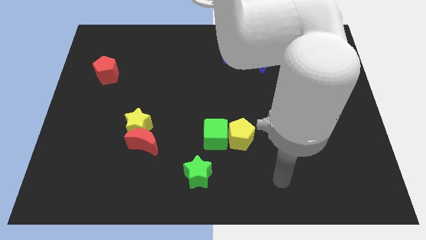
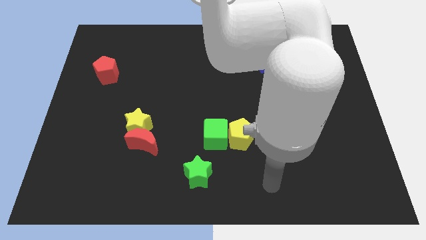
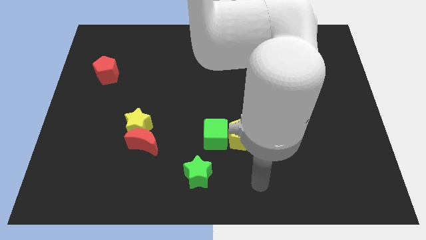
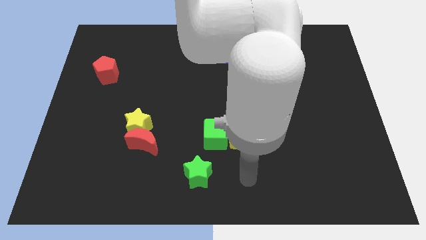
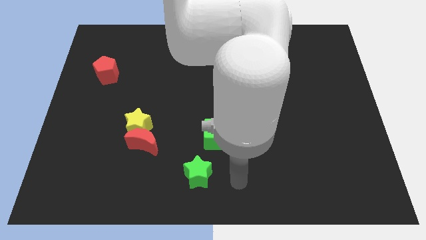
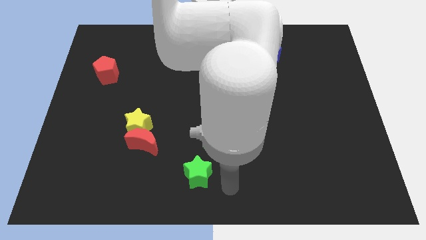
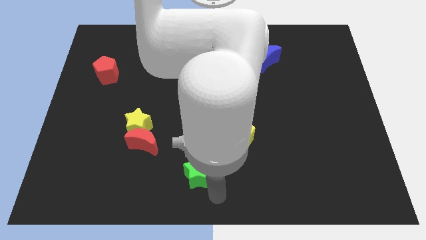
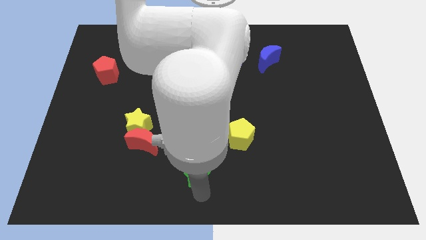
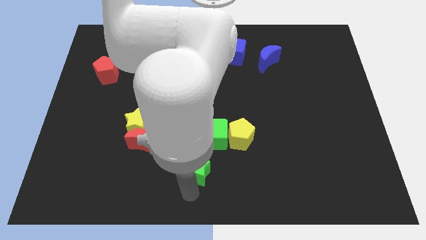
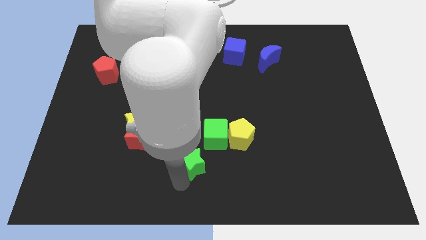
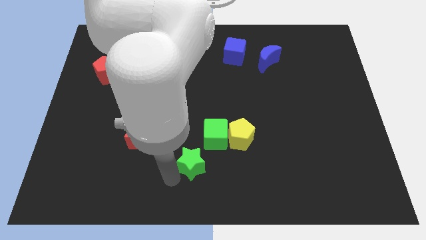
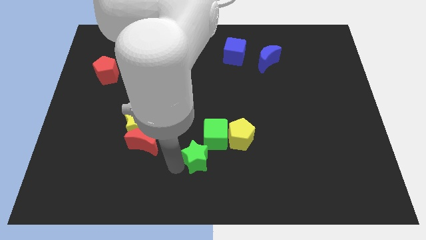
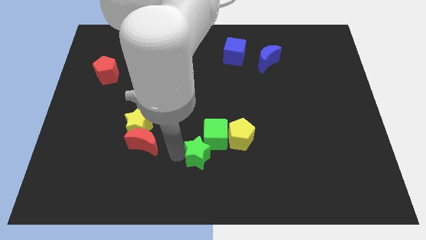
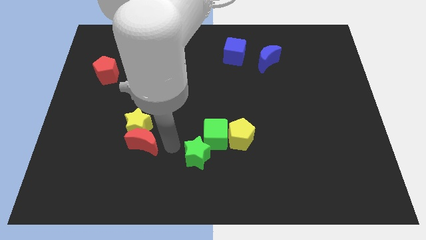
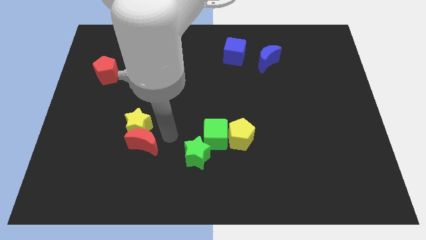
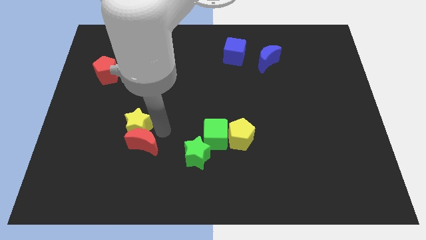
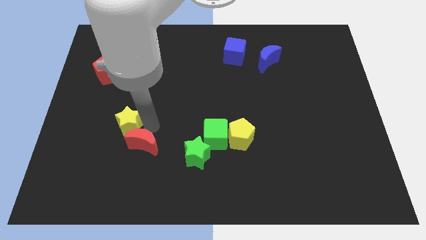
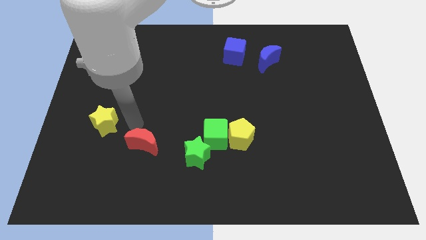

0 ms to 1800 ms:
pull the red moon apart from the yellow star

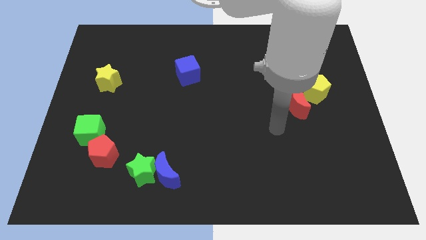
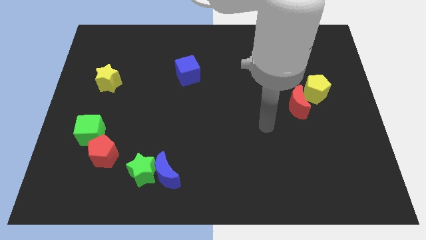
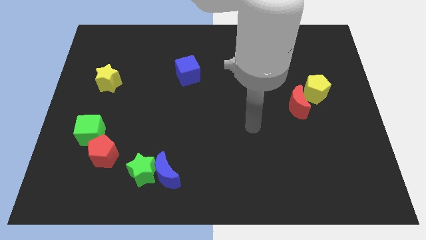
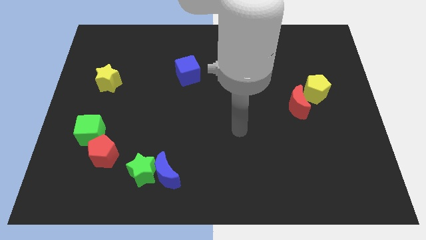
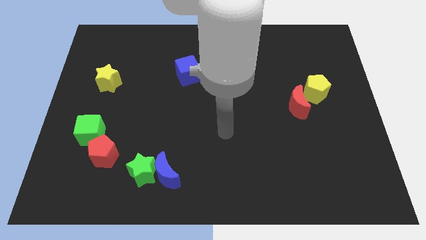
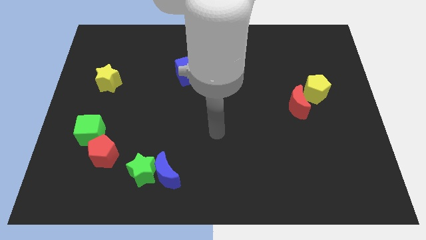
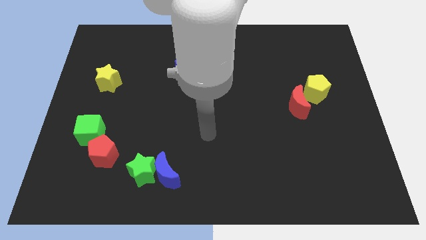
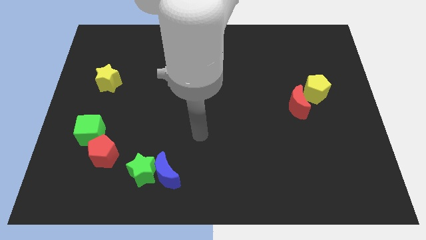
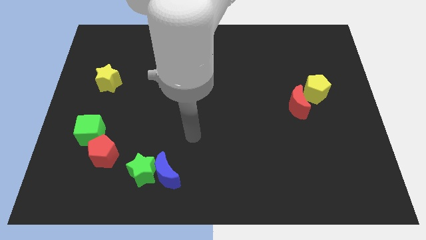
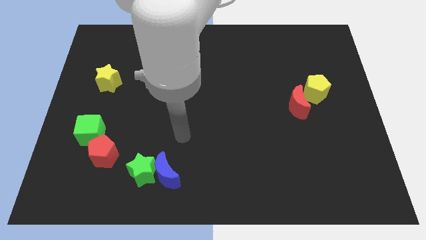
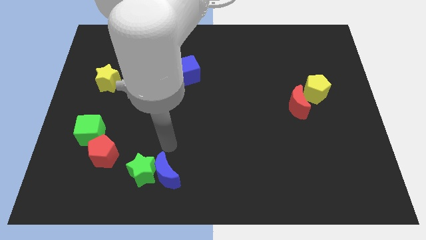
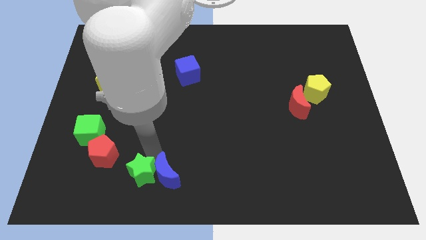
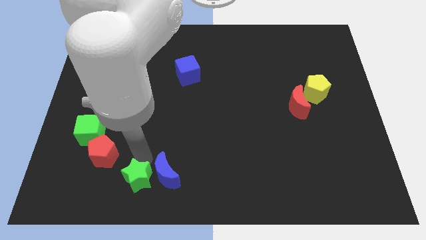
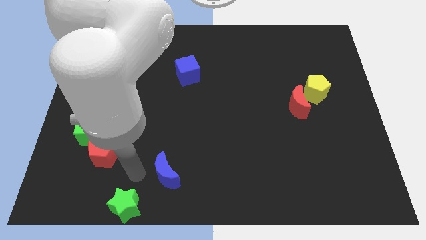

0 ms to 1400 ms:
separate the blue moon from the green star

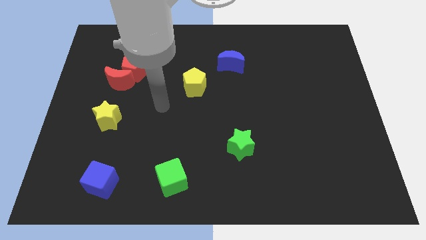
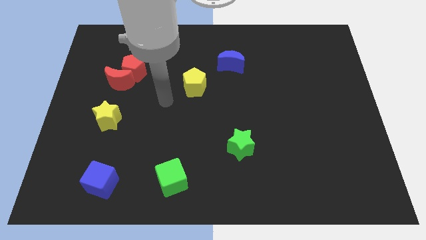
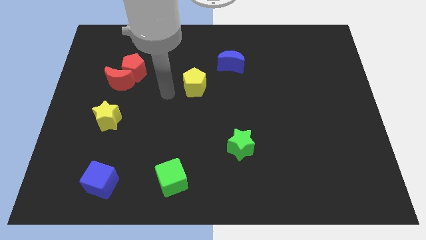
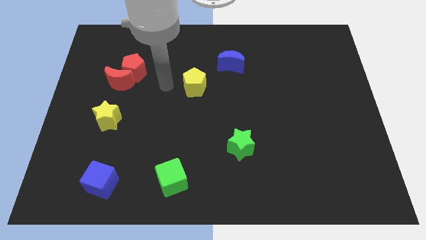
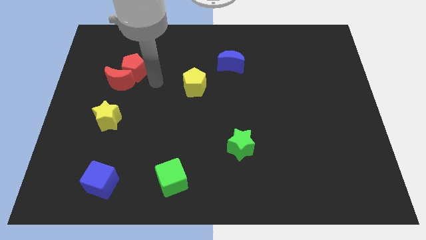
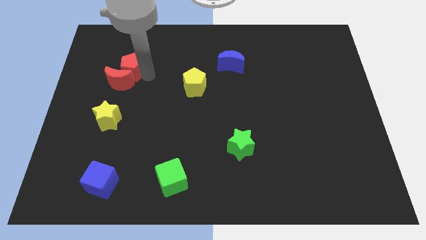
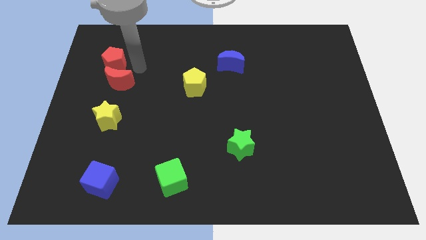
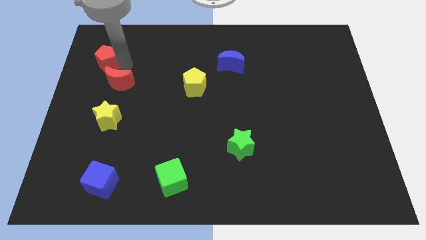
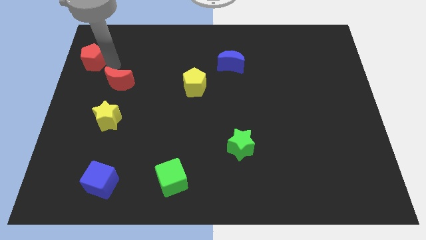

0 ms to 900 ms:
pull the red moon apart from the red pentagon

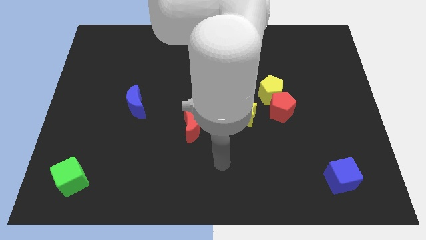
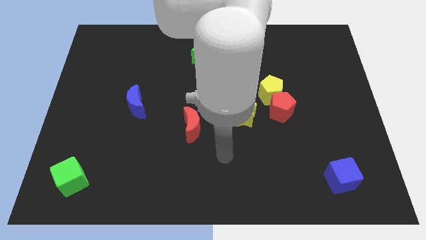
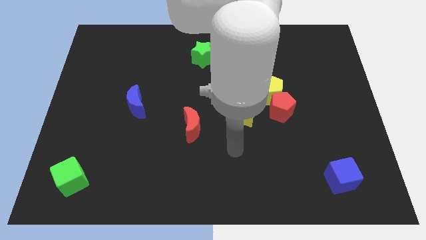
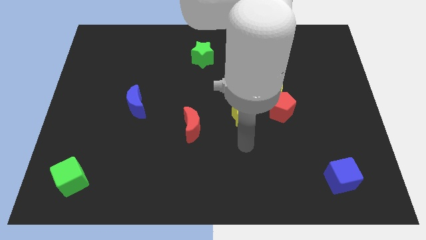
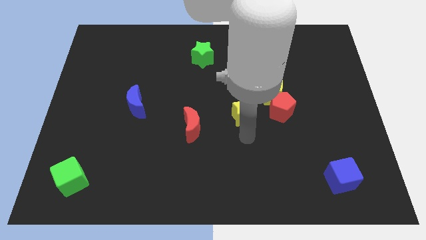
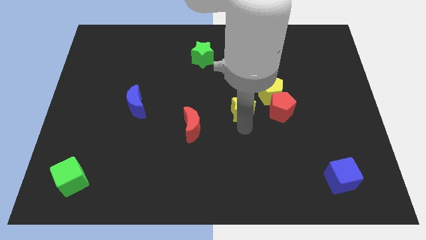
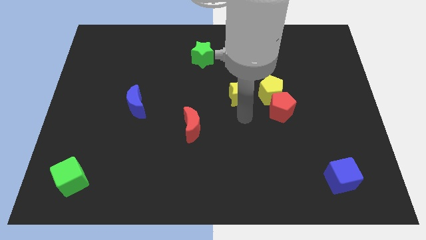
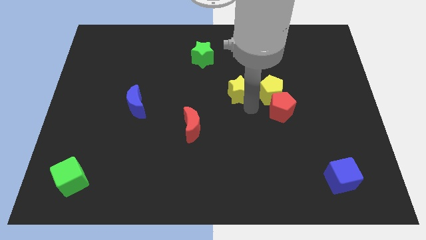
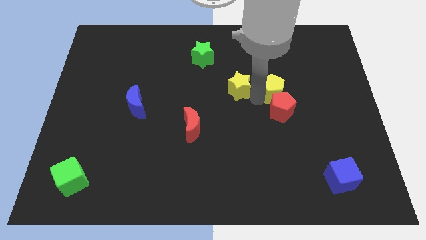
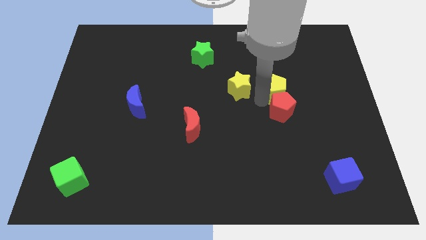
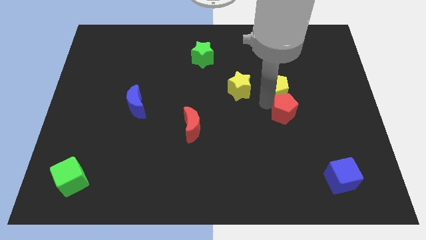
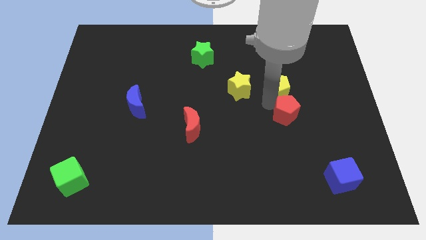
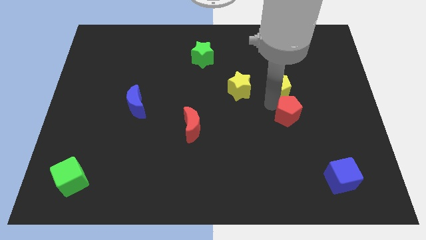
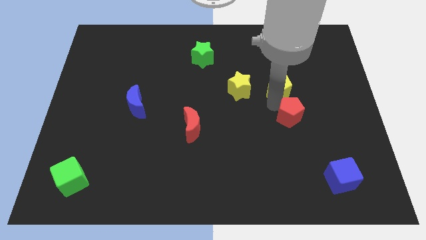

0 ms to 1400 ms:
pull the red pentagon apart from the yellow pentagon and yellow star

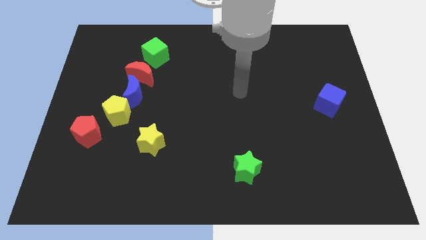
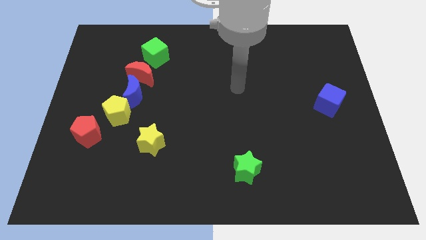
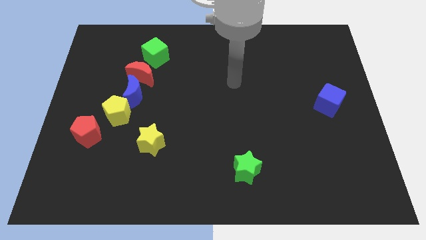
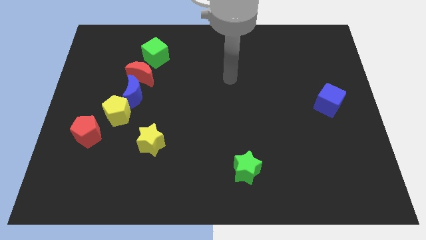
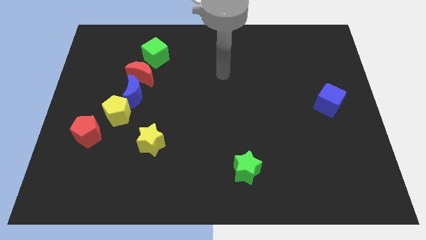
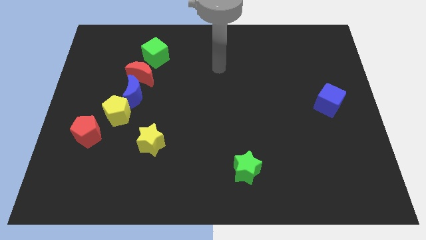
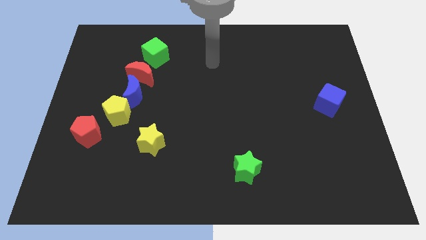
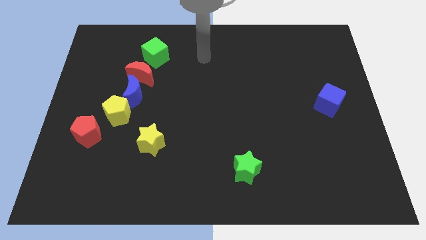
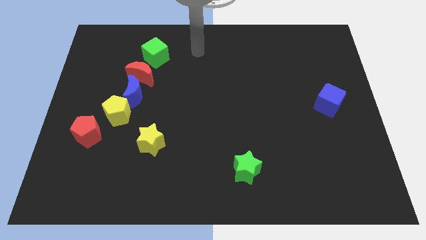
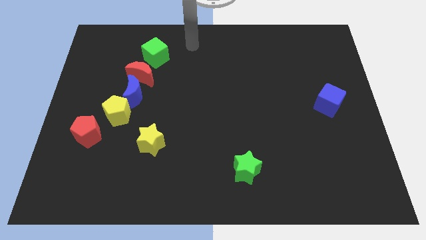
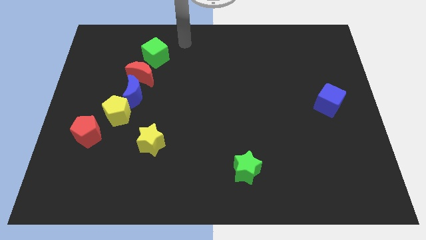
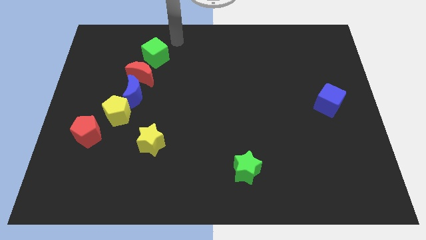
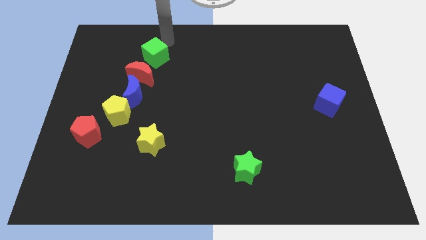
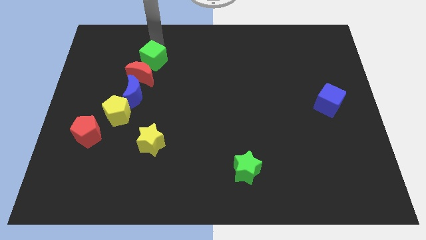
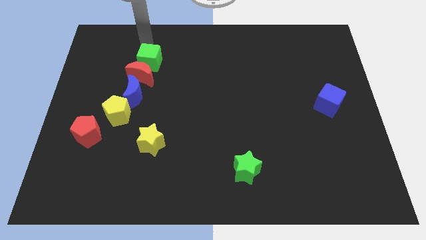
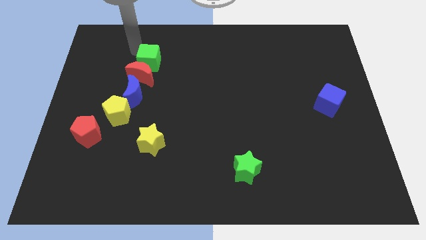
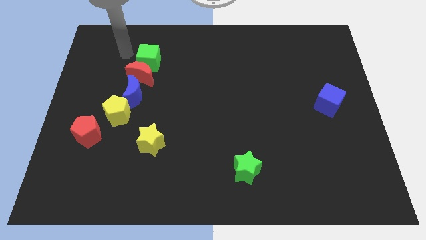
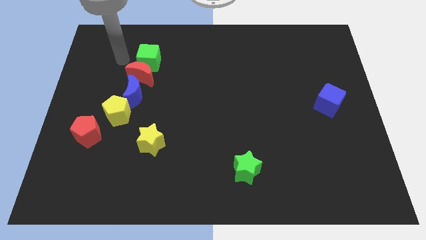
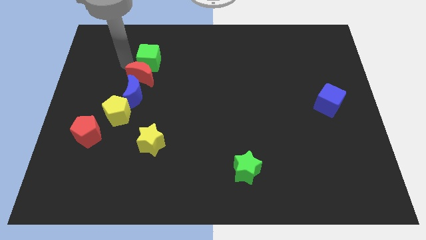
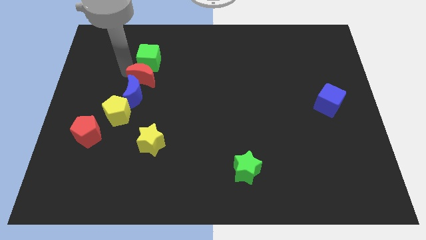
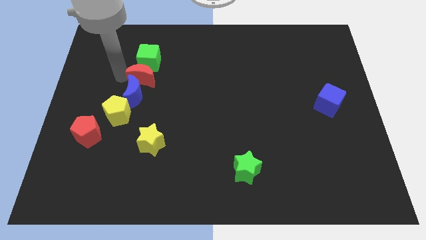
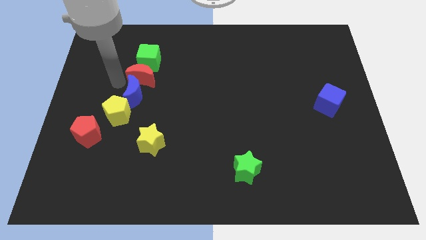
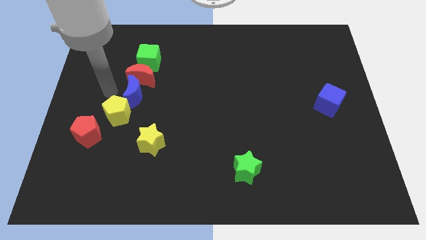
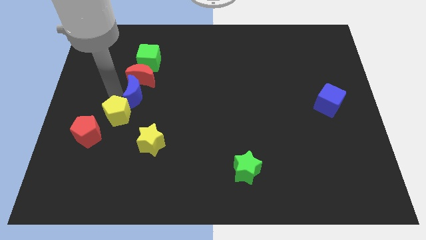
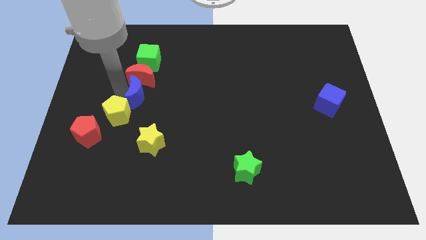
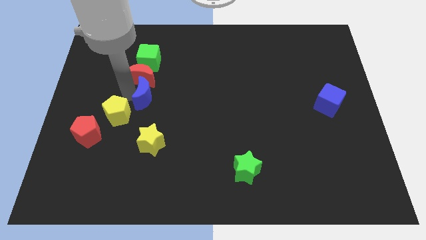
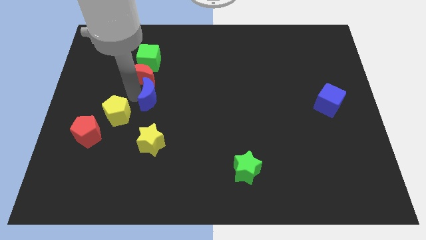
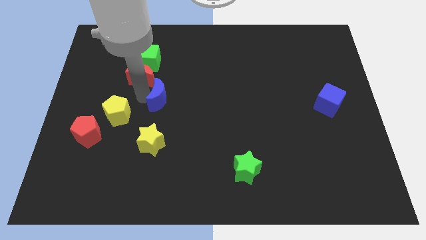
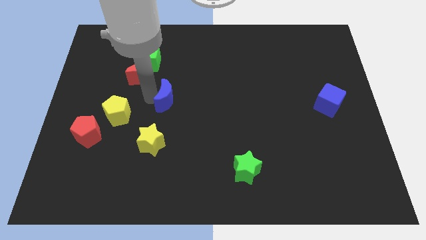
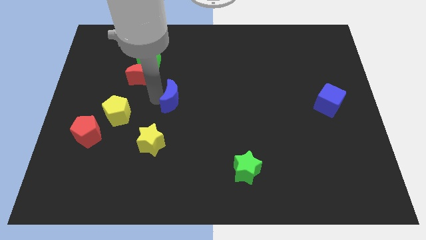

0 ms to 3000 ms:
move the blue moon away from the red moon and yellow pentagon

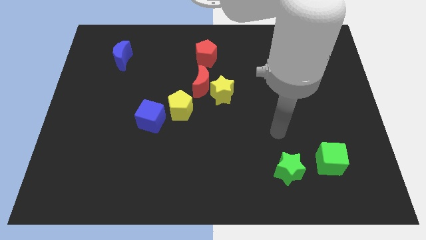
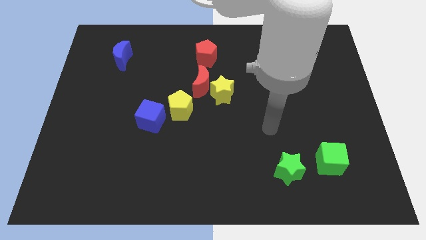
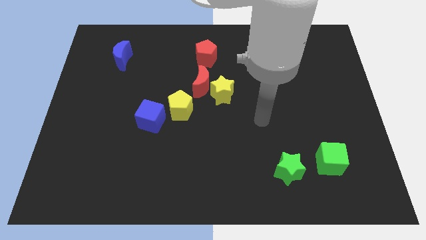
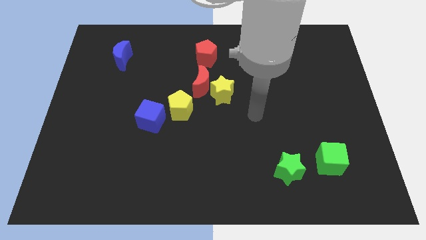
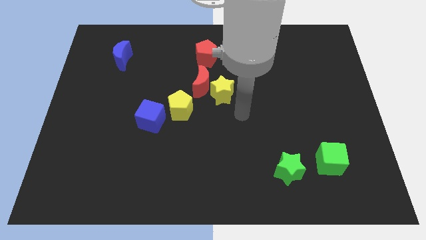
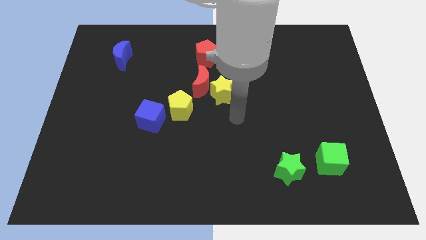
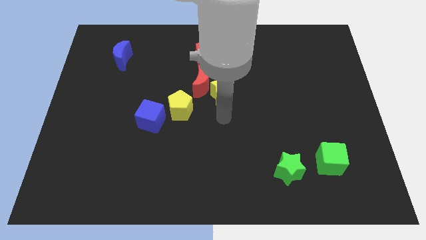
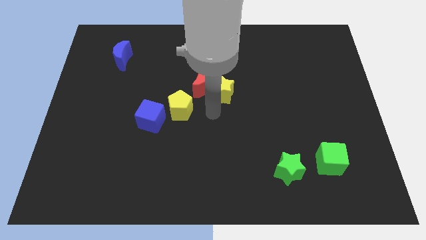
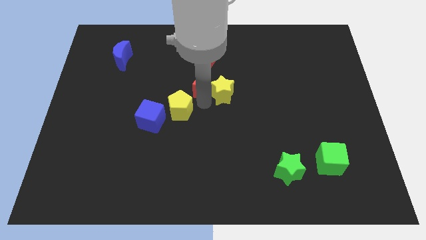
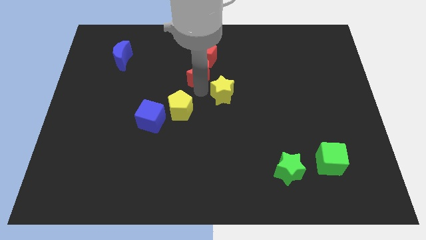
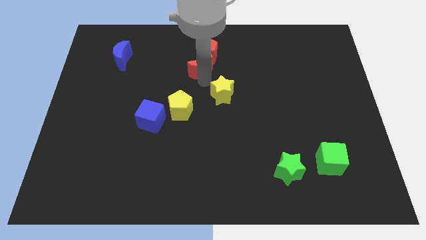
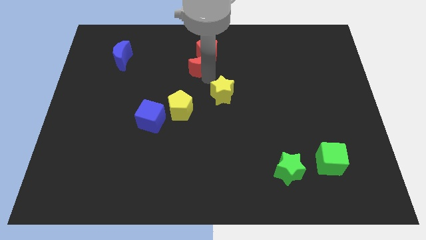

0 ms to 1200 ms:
move the yellow star away from the red moon
